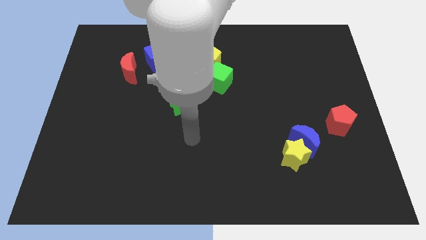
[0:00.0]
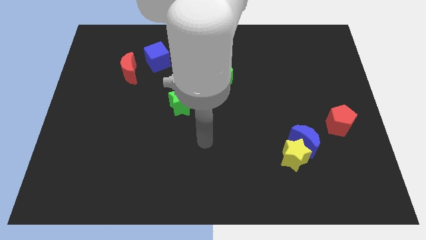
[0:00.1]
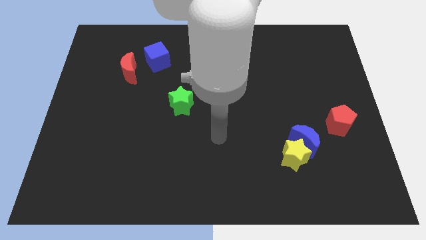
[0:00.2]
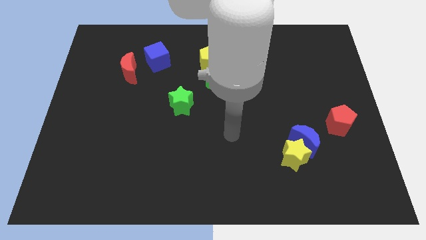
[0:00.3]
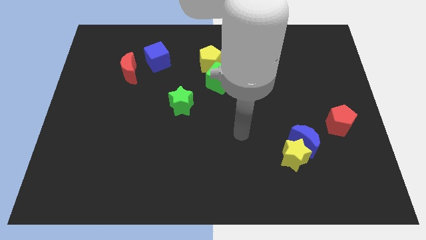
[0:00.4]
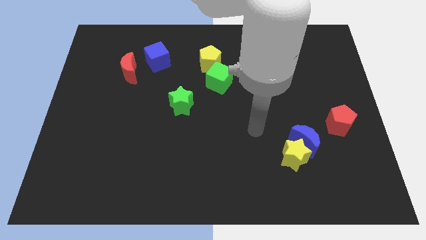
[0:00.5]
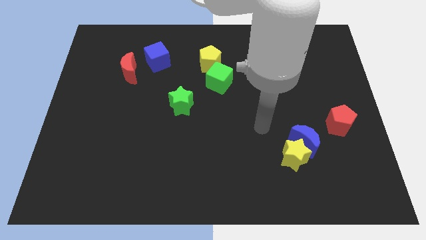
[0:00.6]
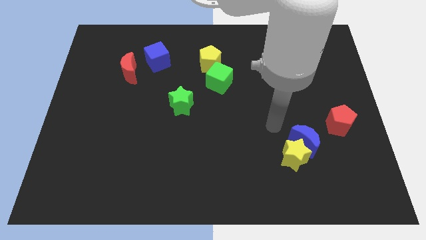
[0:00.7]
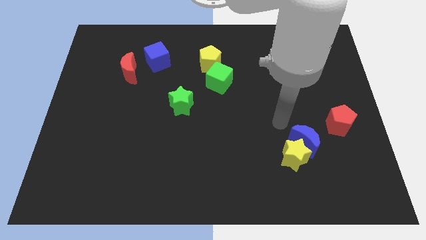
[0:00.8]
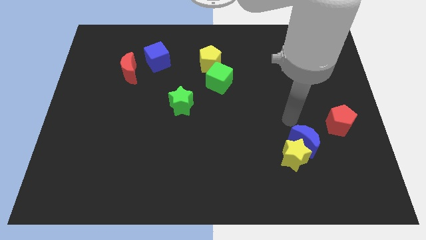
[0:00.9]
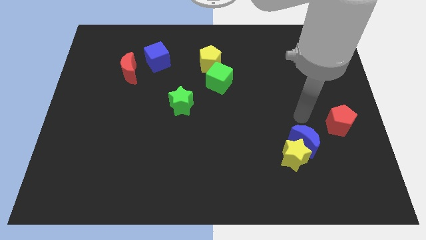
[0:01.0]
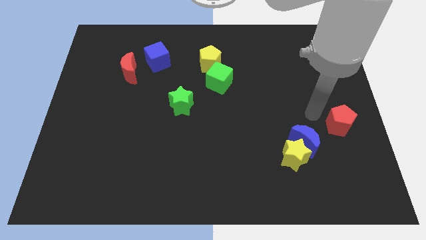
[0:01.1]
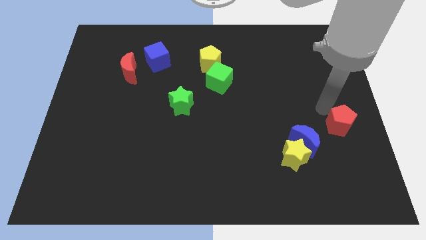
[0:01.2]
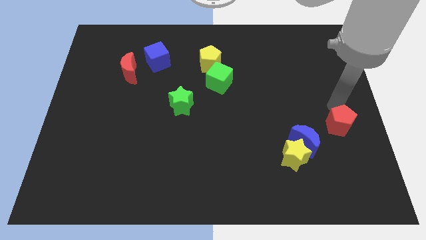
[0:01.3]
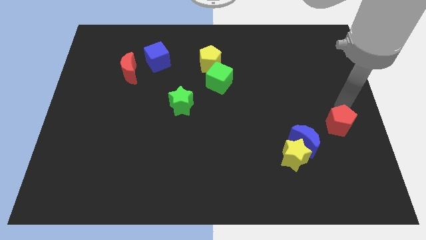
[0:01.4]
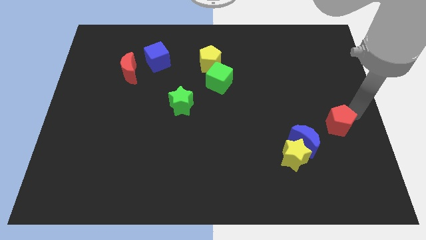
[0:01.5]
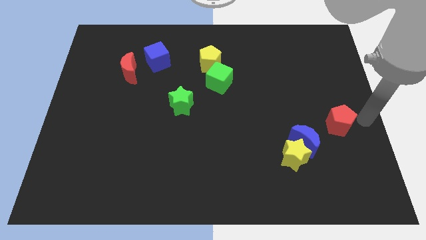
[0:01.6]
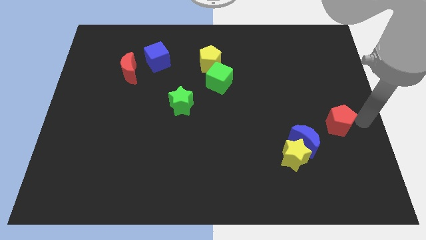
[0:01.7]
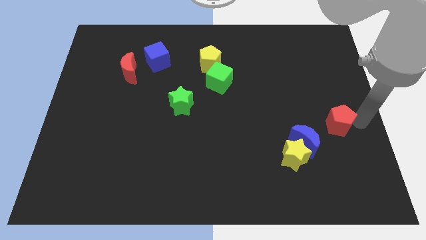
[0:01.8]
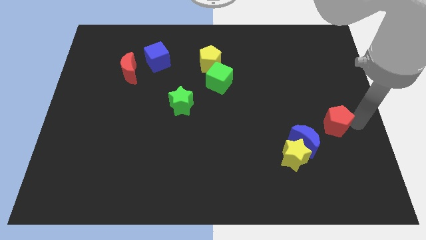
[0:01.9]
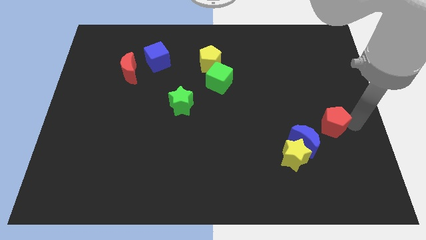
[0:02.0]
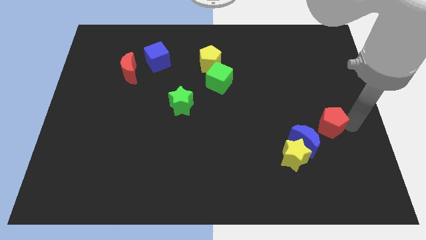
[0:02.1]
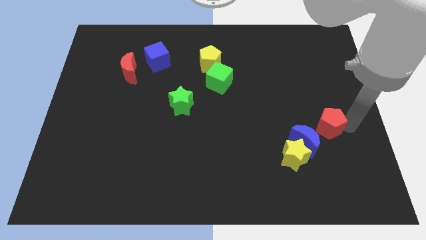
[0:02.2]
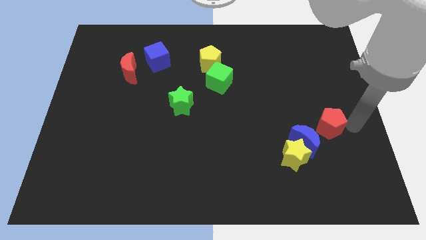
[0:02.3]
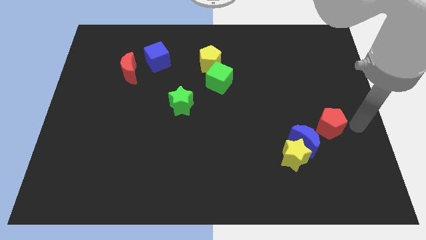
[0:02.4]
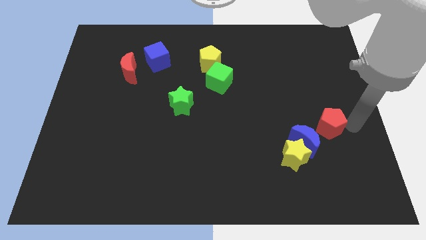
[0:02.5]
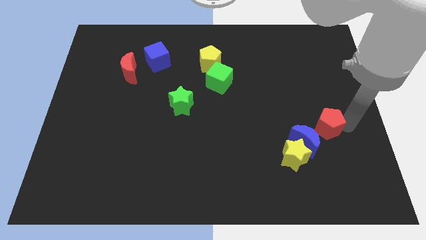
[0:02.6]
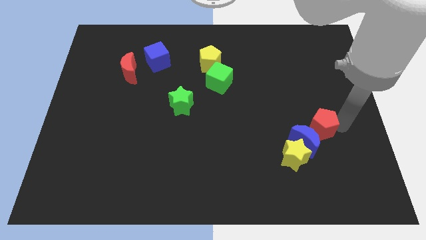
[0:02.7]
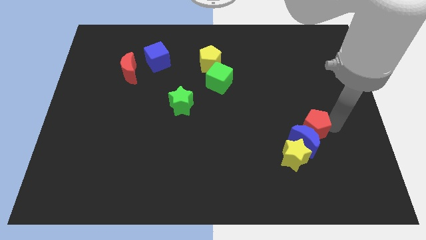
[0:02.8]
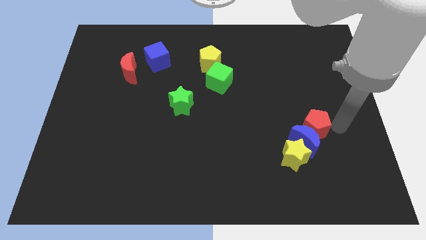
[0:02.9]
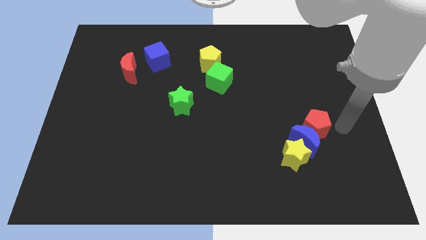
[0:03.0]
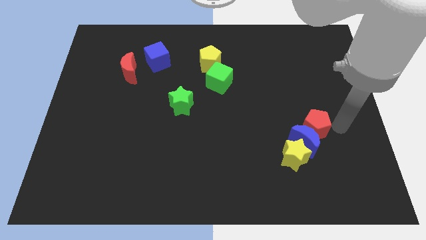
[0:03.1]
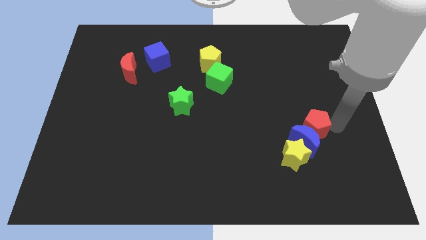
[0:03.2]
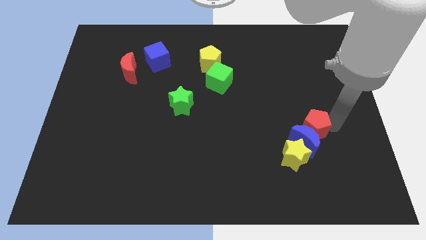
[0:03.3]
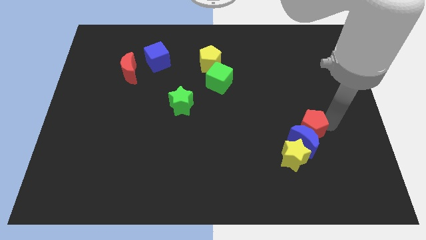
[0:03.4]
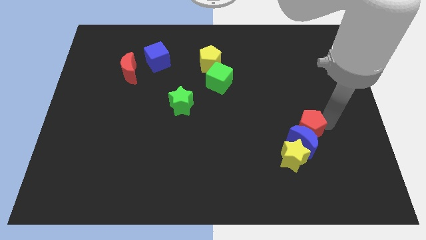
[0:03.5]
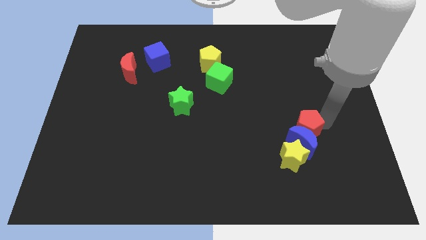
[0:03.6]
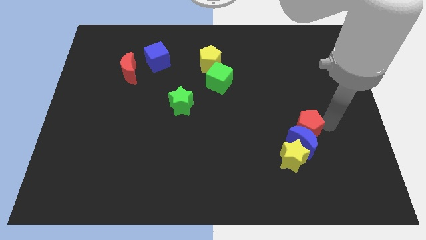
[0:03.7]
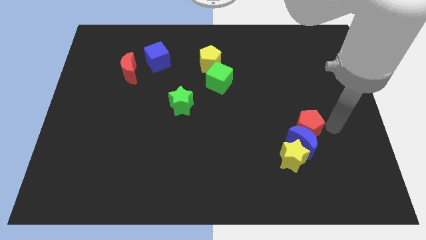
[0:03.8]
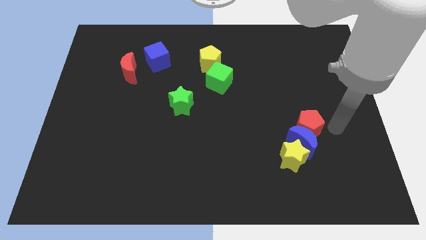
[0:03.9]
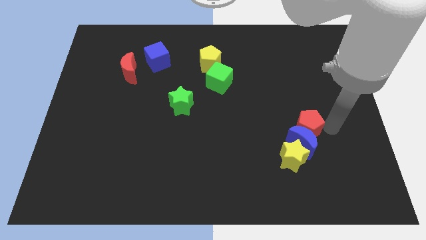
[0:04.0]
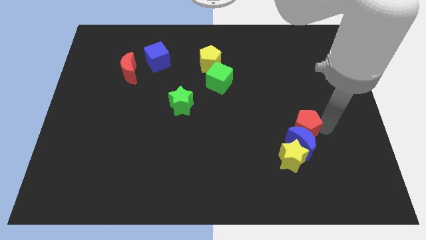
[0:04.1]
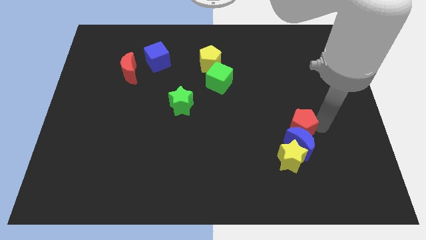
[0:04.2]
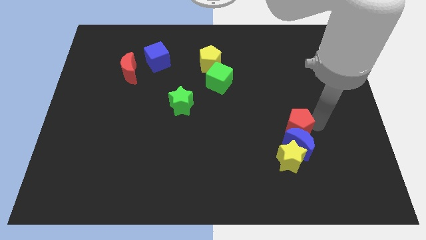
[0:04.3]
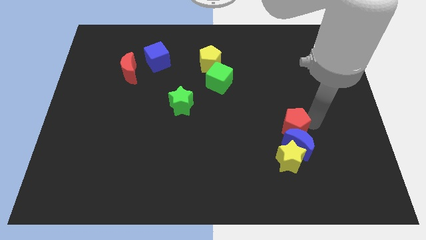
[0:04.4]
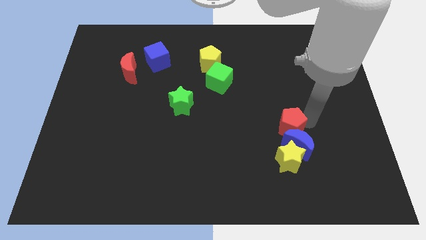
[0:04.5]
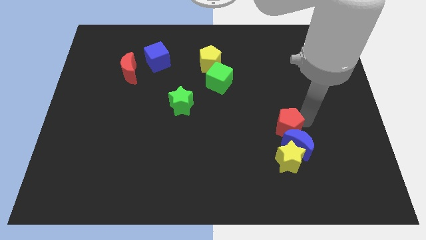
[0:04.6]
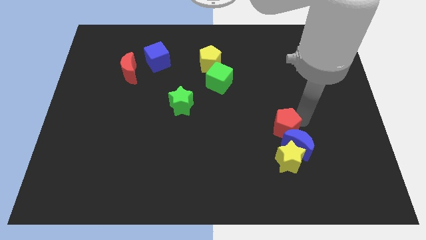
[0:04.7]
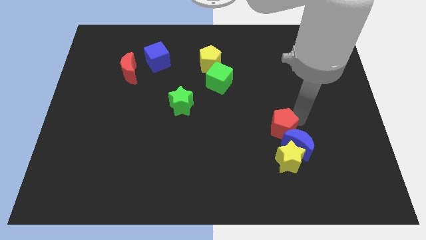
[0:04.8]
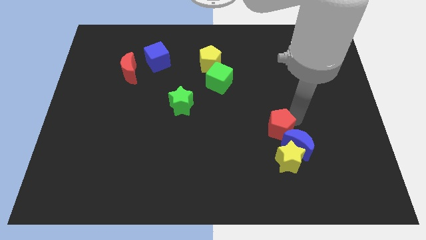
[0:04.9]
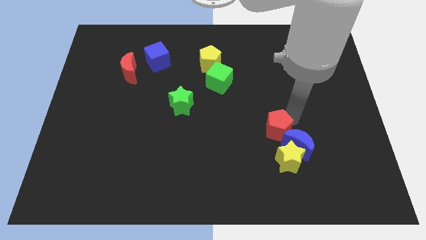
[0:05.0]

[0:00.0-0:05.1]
slide the red pentagon to the top left of the yellow star

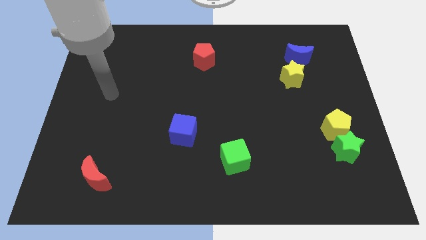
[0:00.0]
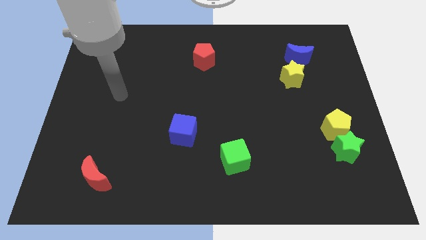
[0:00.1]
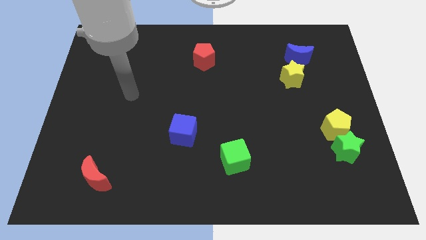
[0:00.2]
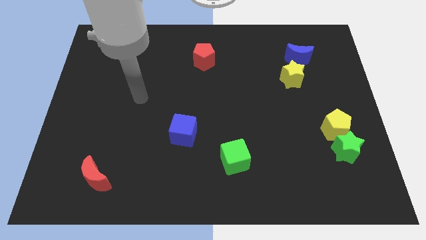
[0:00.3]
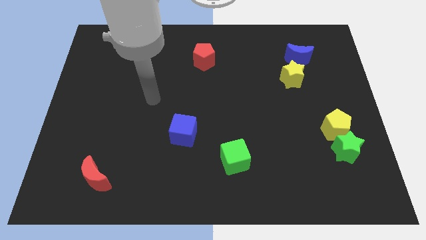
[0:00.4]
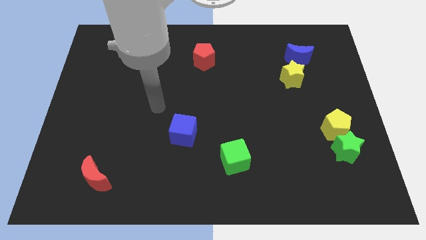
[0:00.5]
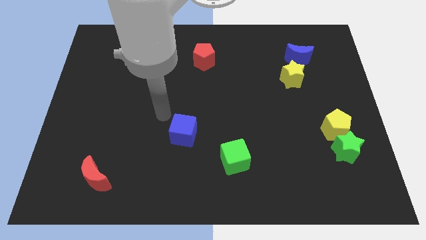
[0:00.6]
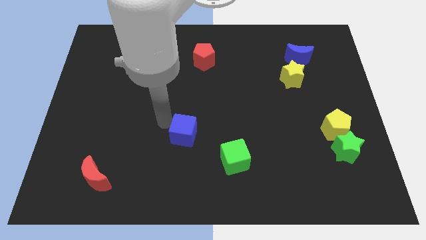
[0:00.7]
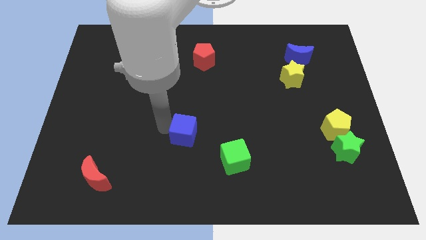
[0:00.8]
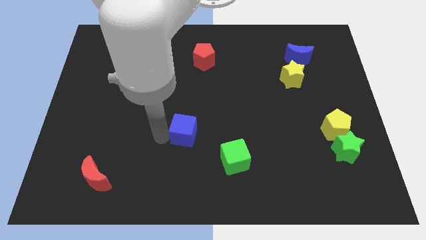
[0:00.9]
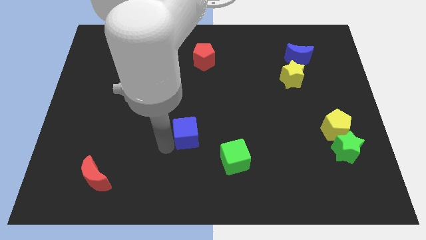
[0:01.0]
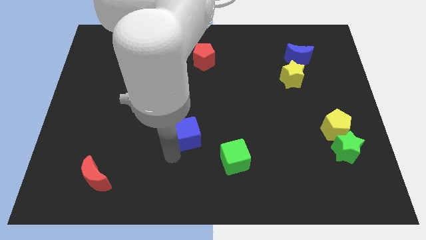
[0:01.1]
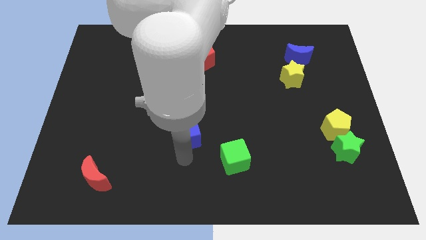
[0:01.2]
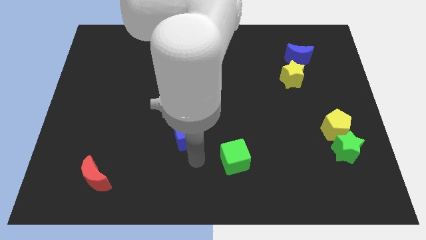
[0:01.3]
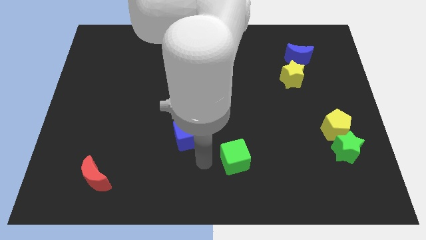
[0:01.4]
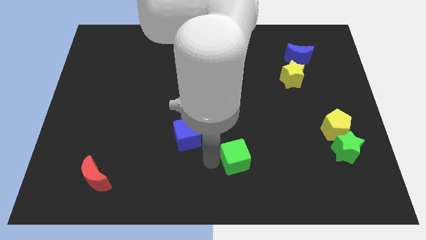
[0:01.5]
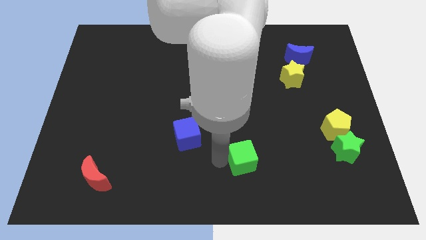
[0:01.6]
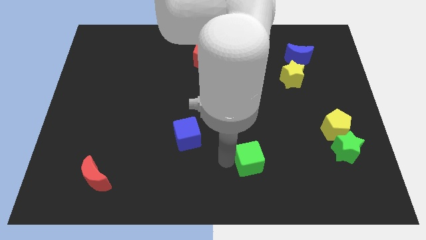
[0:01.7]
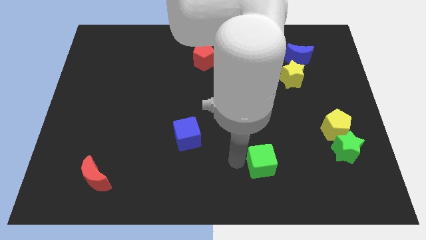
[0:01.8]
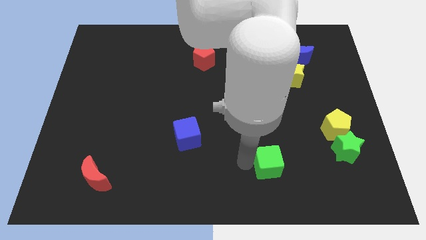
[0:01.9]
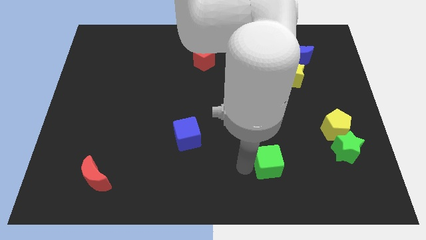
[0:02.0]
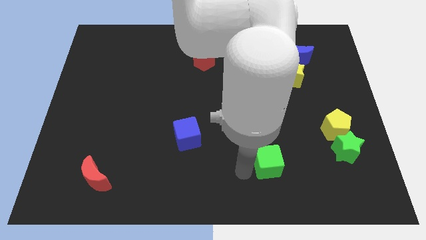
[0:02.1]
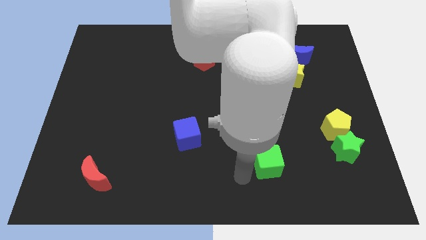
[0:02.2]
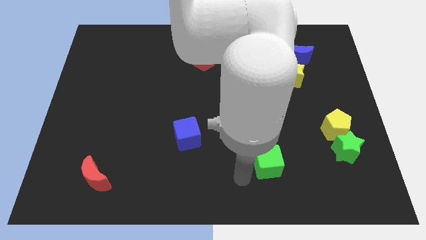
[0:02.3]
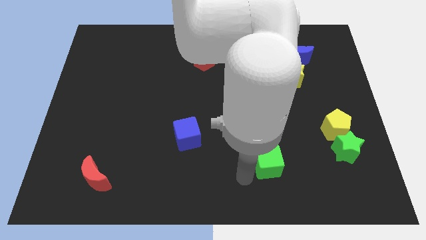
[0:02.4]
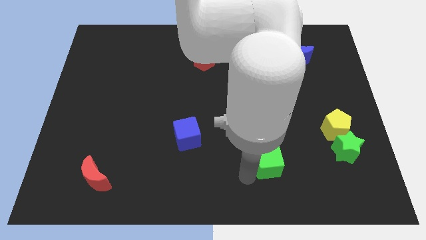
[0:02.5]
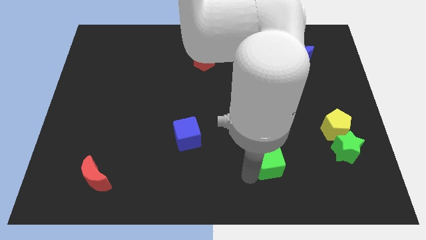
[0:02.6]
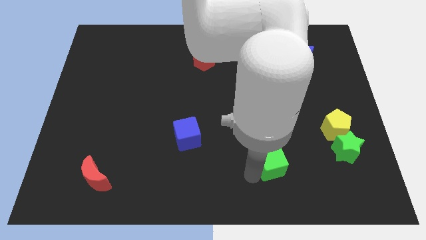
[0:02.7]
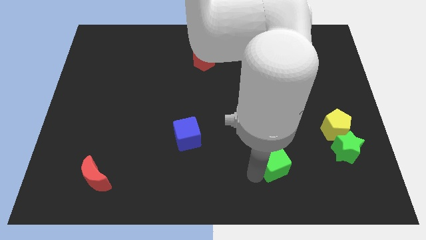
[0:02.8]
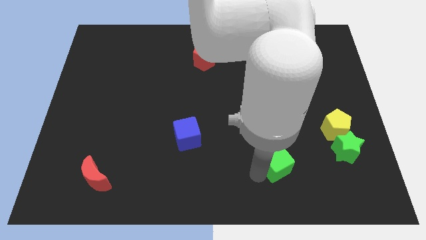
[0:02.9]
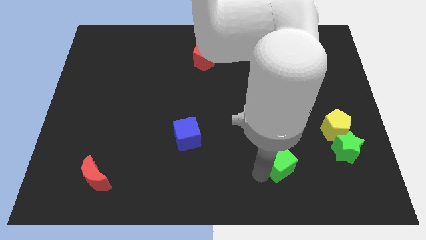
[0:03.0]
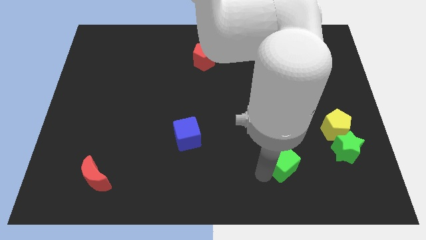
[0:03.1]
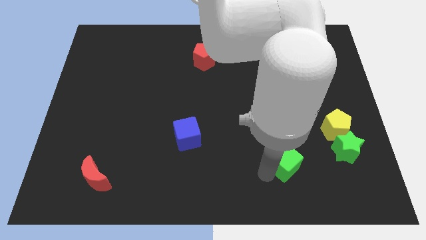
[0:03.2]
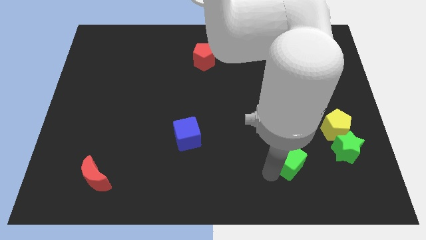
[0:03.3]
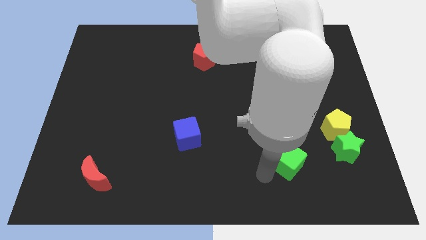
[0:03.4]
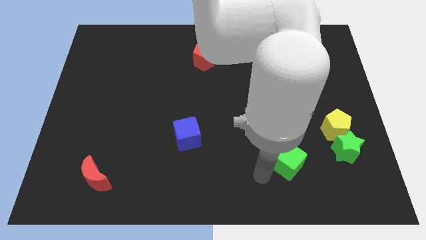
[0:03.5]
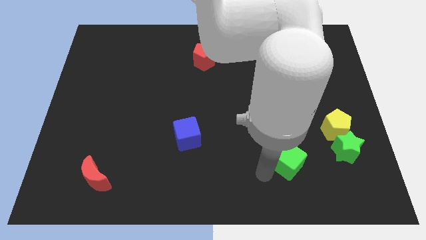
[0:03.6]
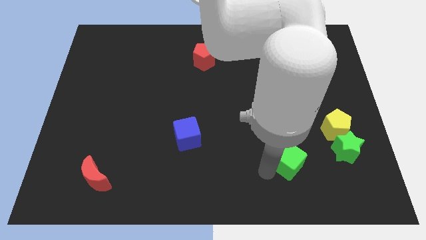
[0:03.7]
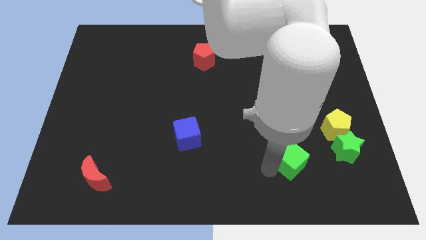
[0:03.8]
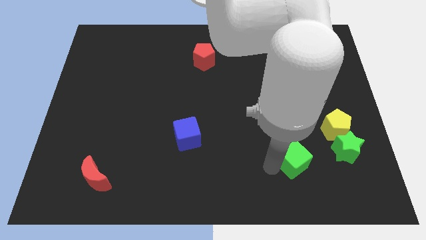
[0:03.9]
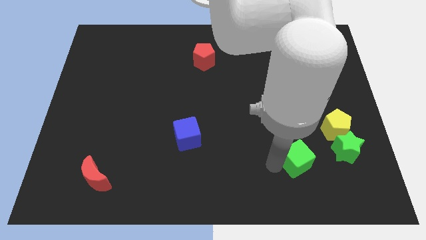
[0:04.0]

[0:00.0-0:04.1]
put the green cube to the bottom left side of the yellow pentagon
